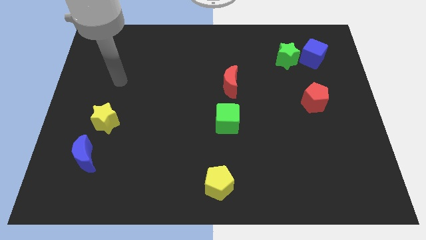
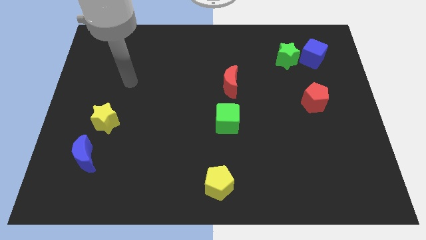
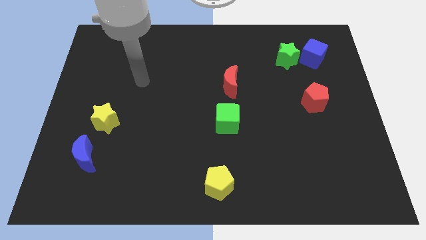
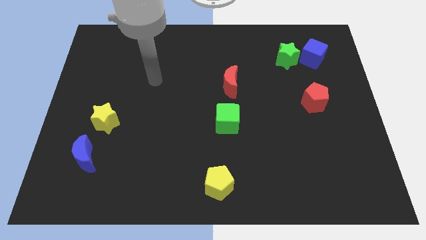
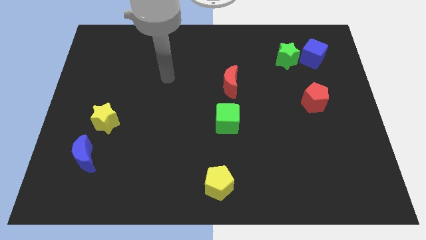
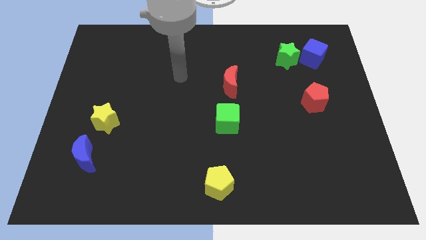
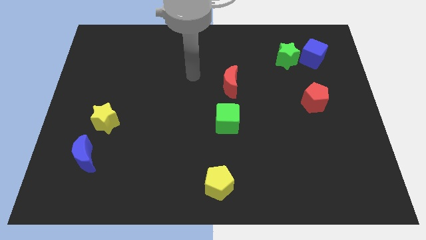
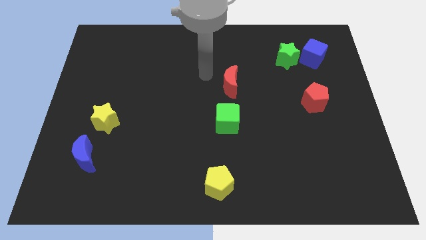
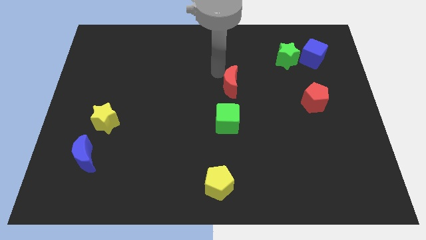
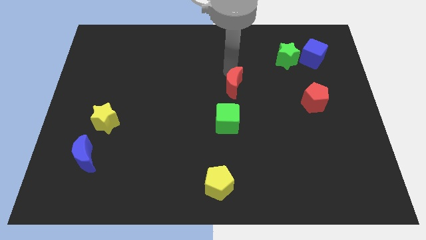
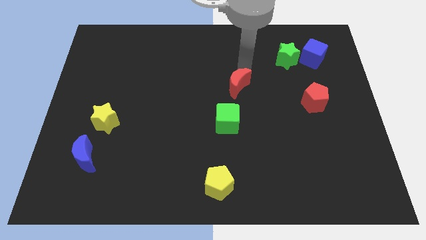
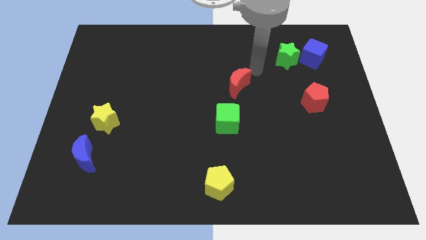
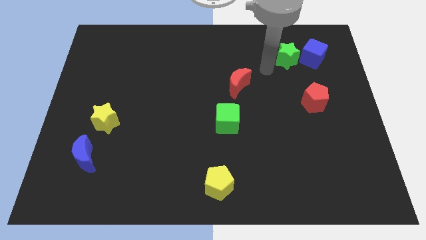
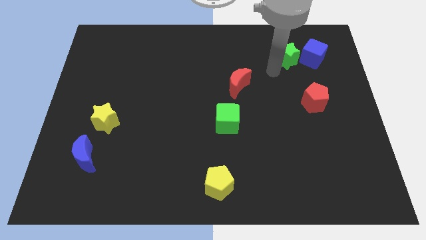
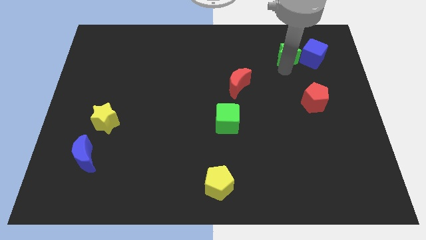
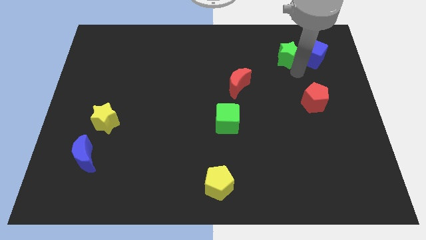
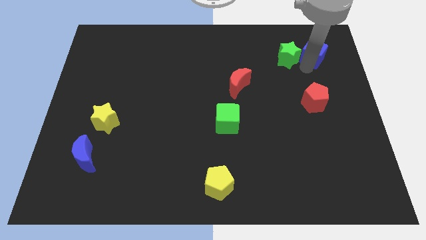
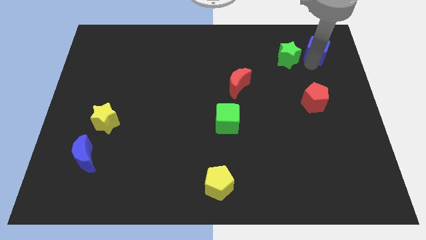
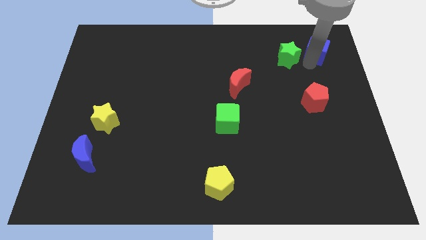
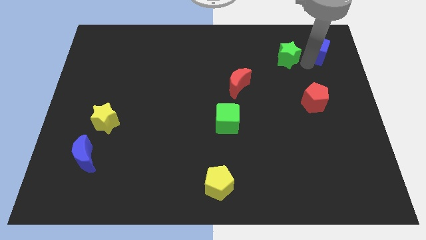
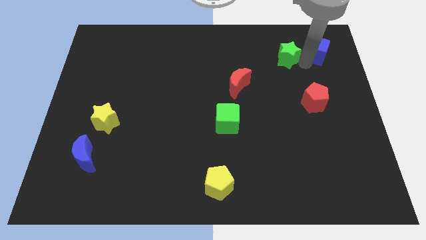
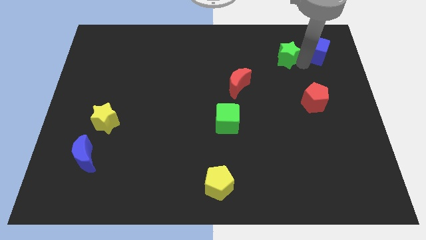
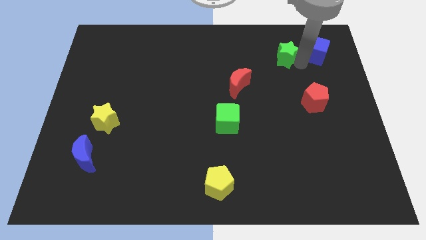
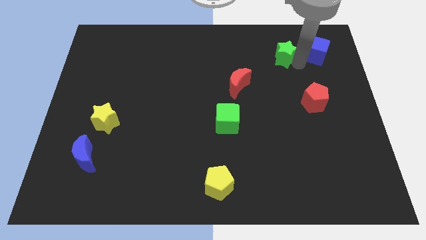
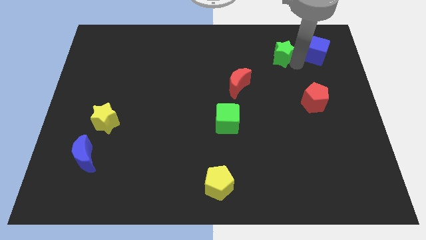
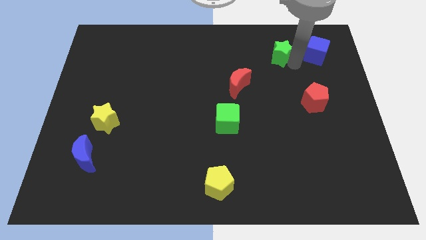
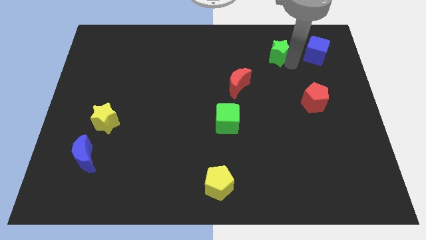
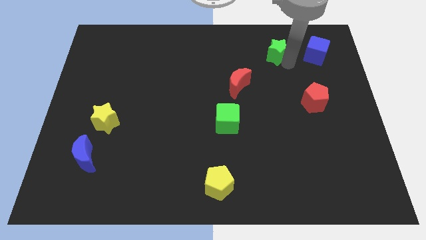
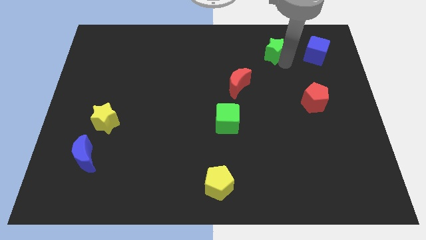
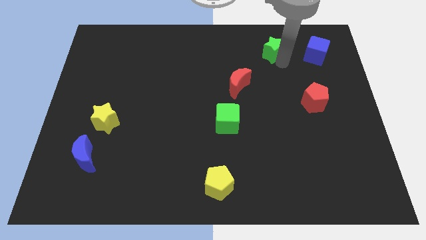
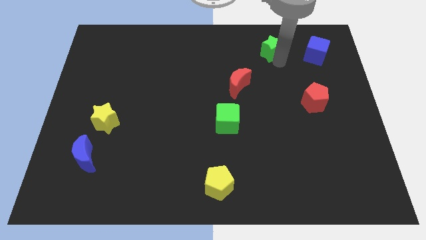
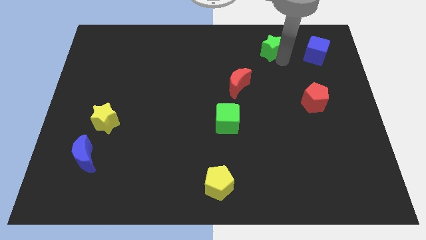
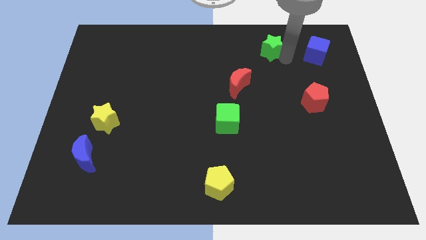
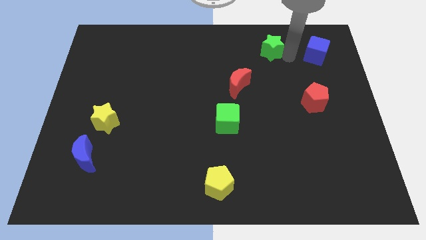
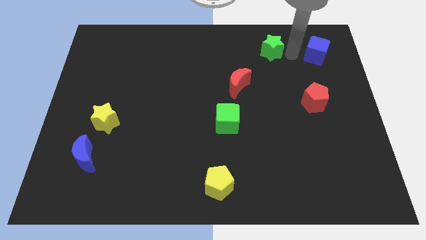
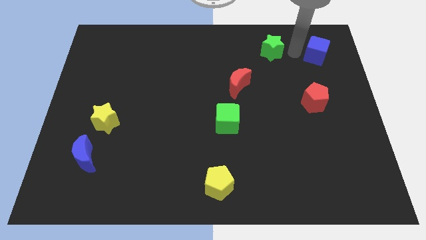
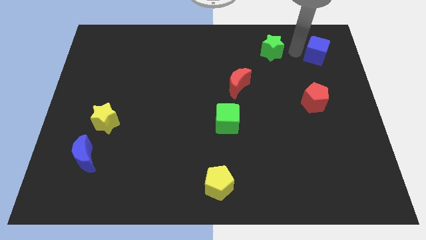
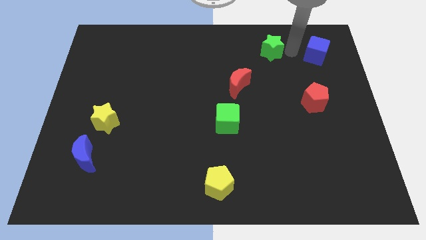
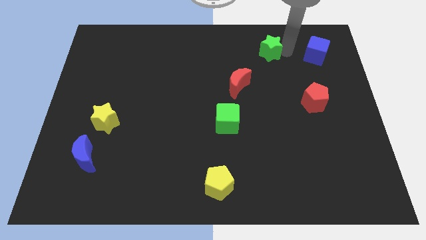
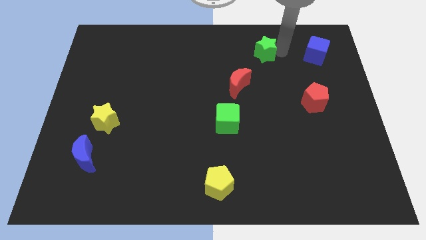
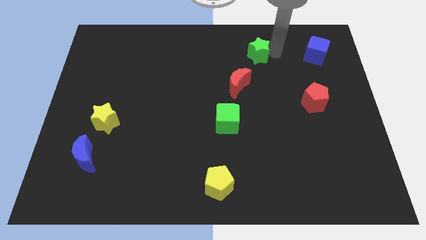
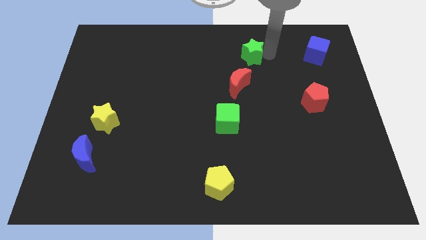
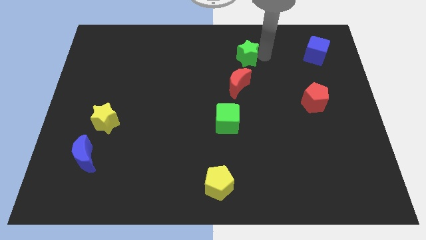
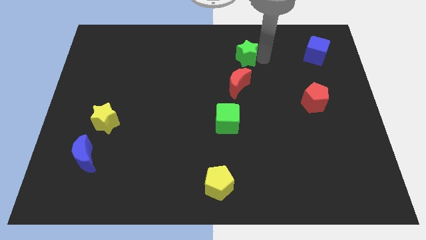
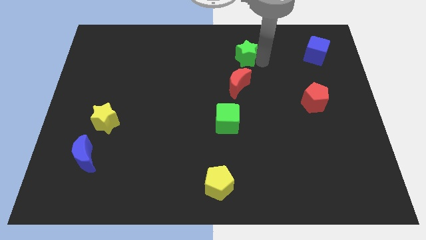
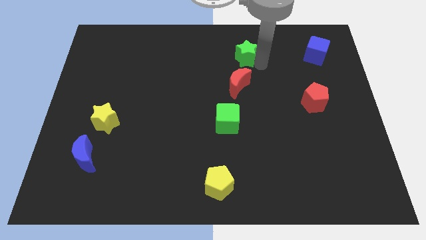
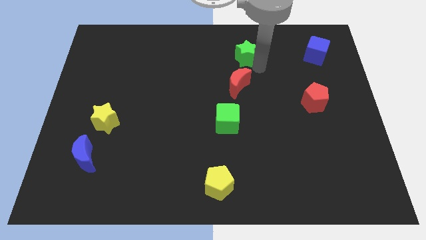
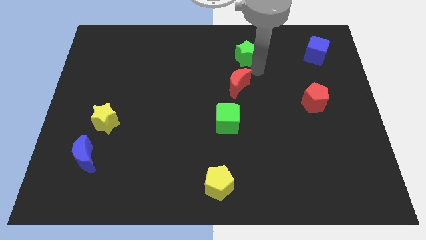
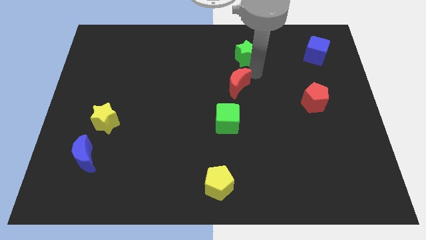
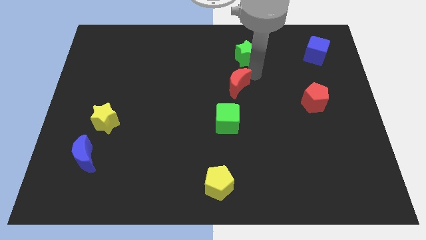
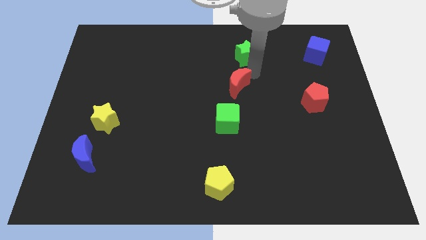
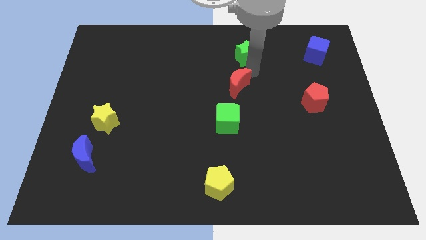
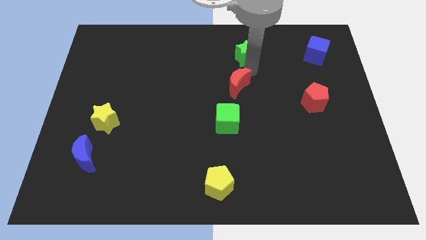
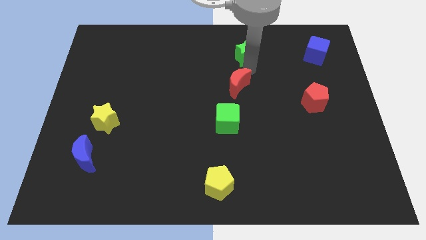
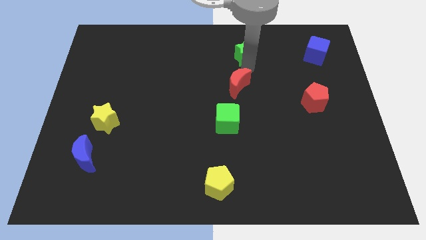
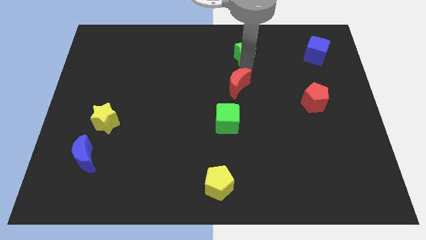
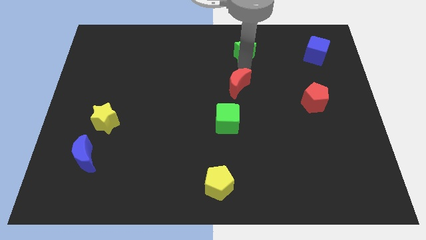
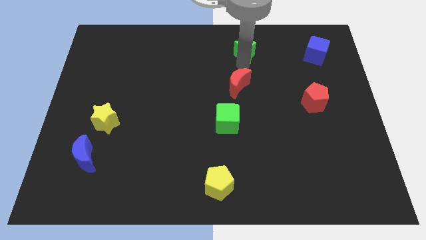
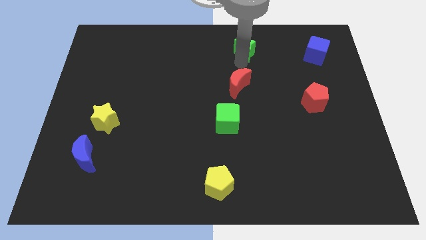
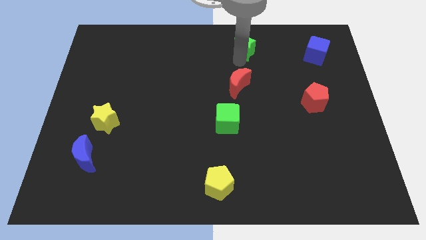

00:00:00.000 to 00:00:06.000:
slide the green star to the top
